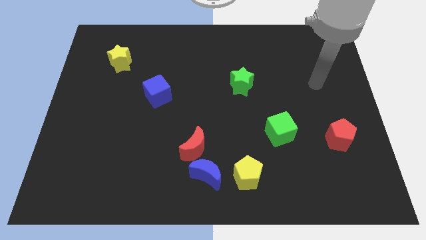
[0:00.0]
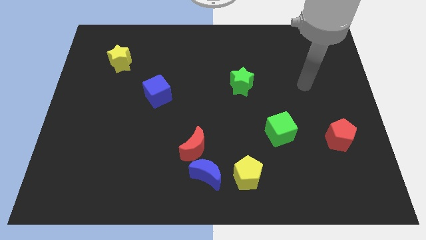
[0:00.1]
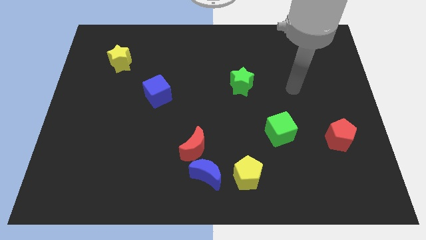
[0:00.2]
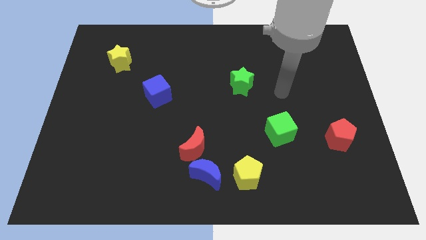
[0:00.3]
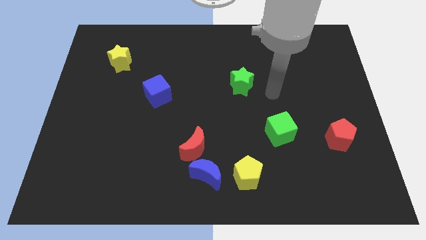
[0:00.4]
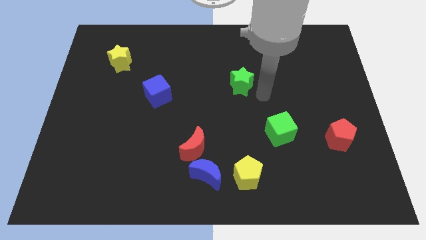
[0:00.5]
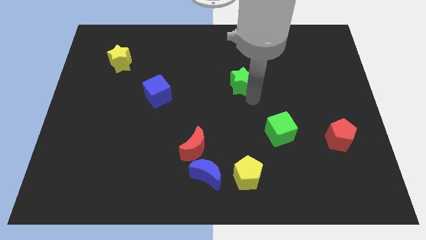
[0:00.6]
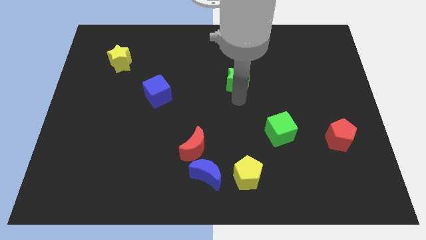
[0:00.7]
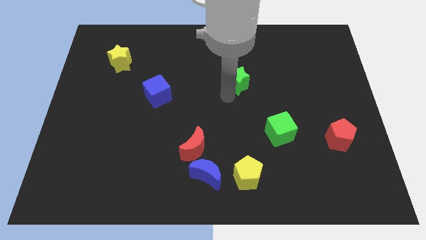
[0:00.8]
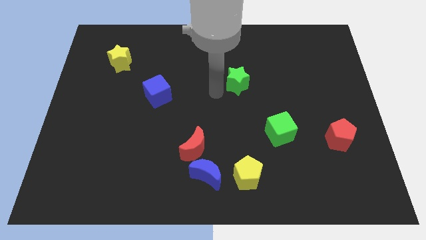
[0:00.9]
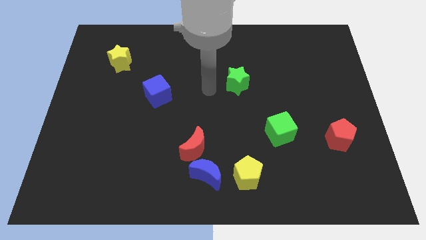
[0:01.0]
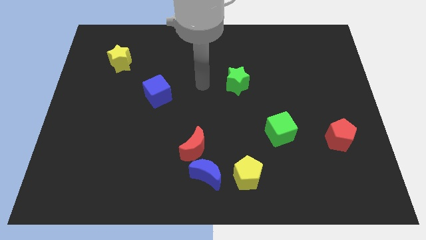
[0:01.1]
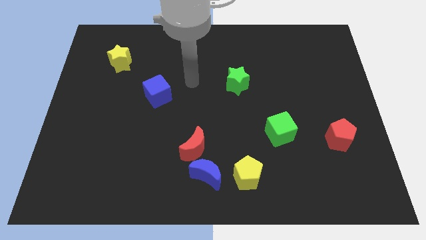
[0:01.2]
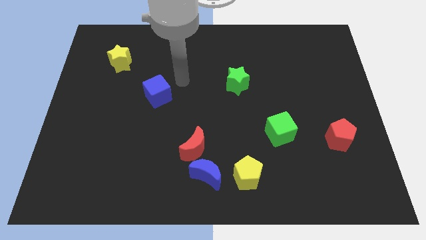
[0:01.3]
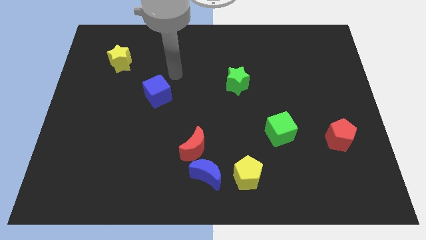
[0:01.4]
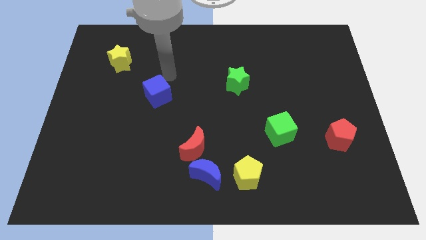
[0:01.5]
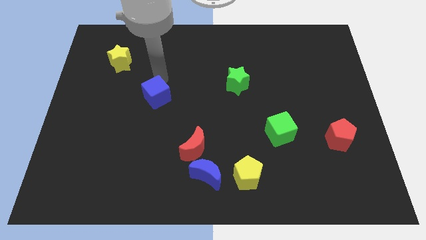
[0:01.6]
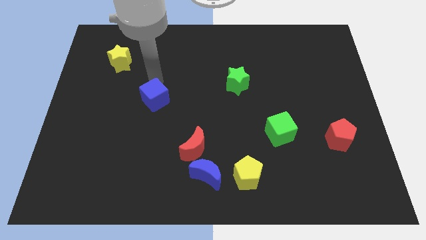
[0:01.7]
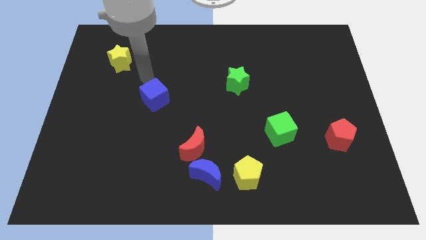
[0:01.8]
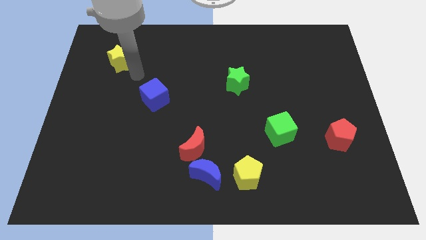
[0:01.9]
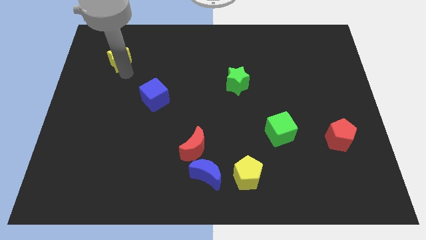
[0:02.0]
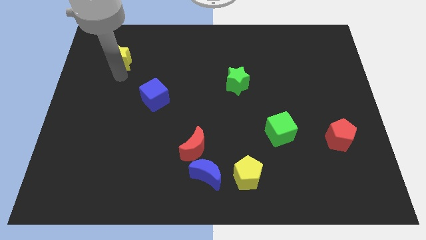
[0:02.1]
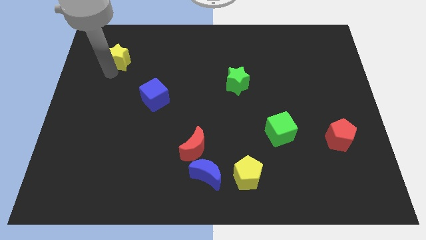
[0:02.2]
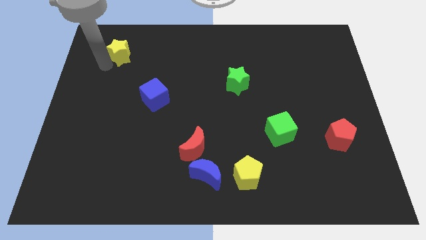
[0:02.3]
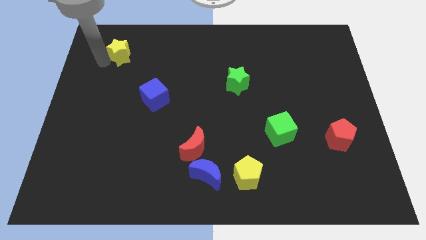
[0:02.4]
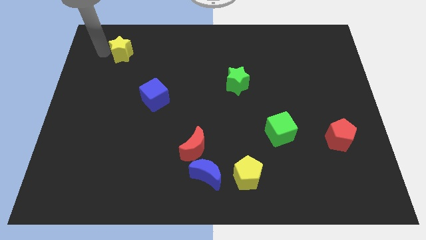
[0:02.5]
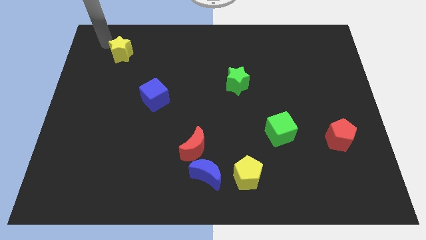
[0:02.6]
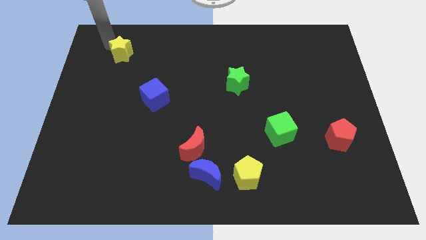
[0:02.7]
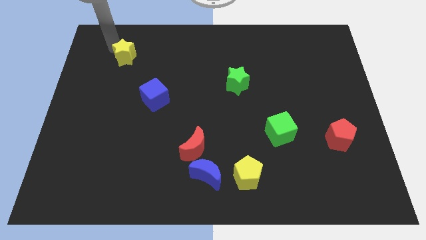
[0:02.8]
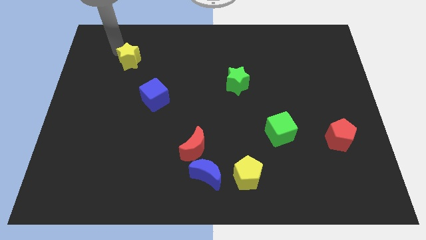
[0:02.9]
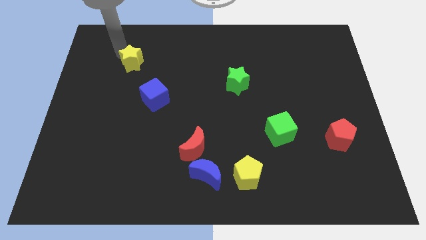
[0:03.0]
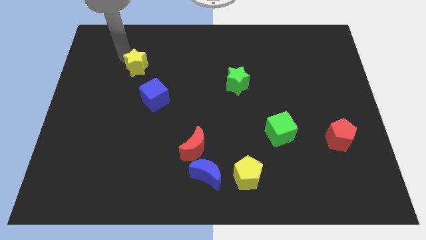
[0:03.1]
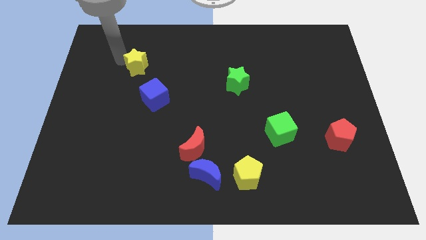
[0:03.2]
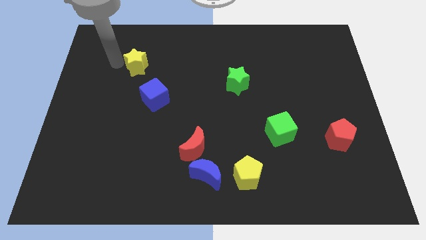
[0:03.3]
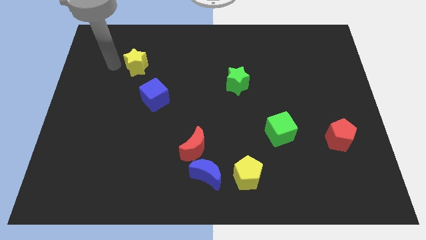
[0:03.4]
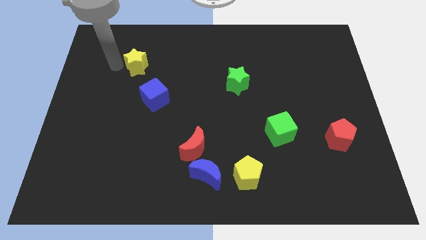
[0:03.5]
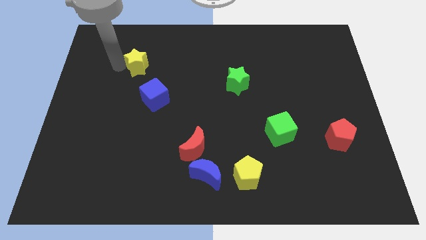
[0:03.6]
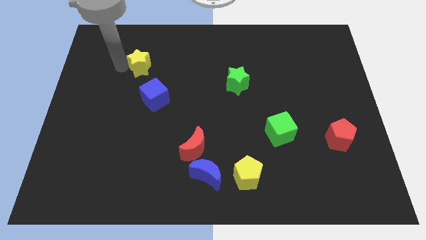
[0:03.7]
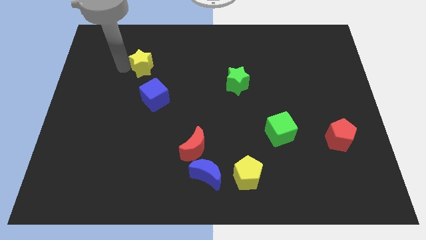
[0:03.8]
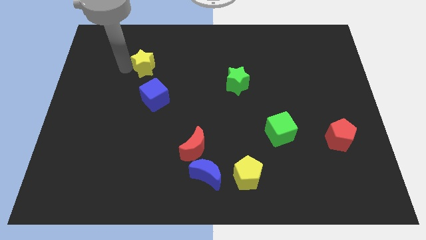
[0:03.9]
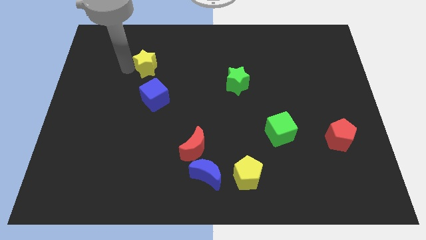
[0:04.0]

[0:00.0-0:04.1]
push the yellow star slightly right

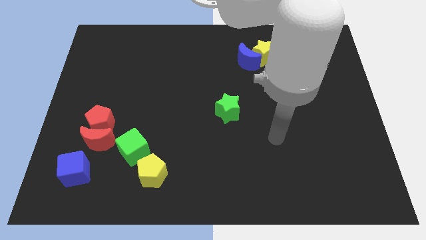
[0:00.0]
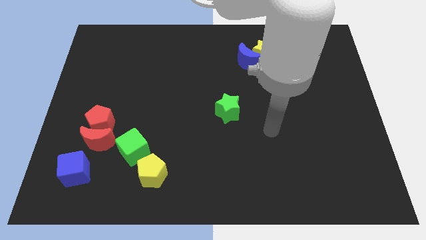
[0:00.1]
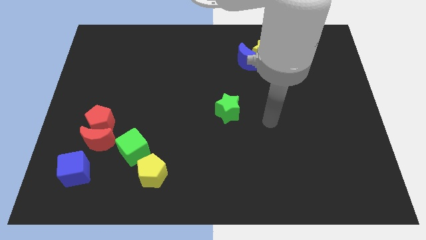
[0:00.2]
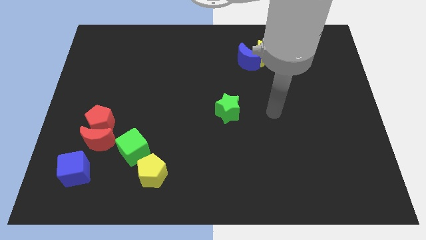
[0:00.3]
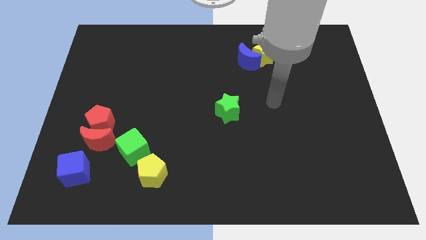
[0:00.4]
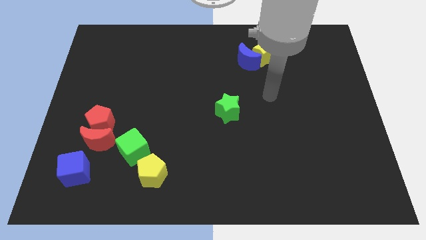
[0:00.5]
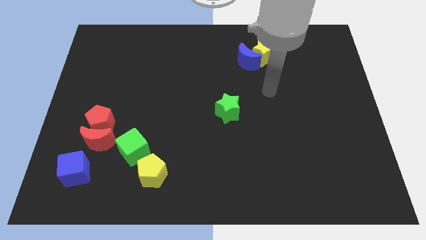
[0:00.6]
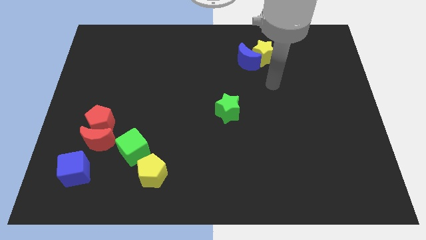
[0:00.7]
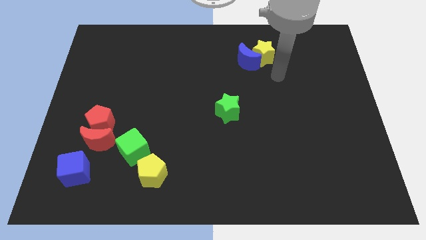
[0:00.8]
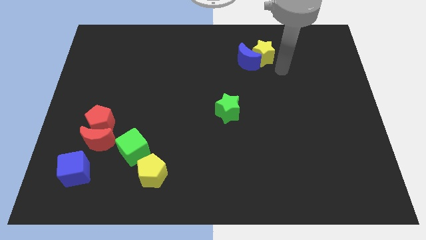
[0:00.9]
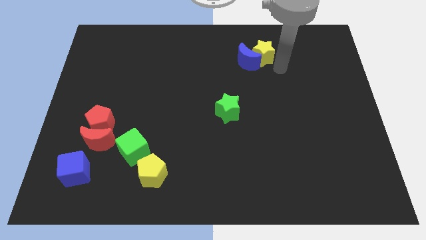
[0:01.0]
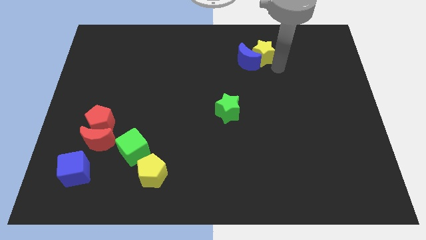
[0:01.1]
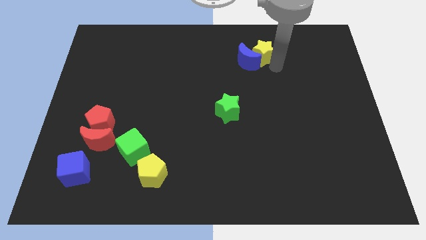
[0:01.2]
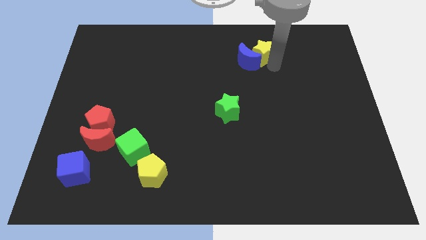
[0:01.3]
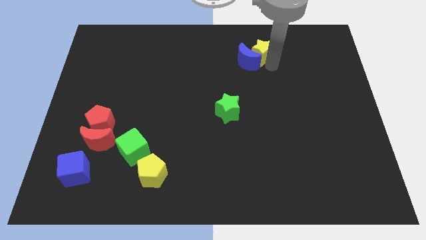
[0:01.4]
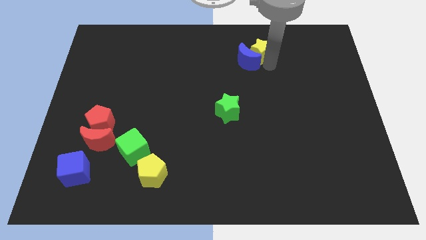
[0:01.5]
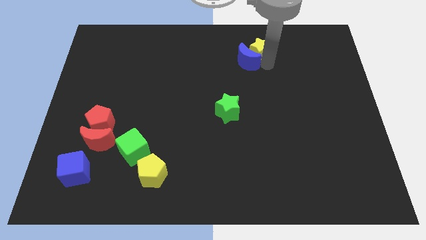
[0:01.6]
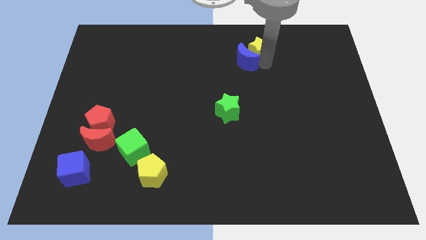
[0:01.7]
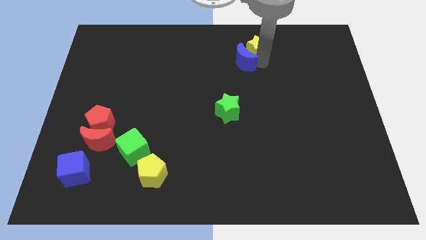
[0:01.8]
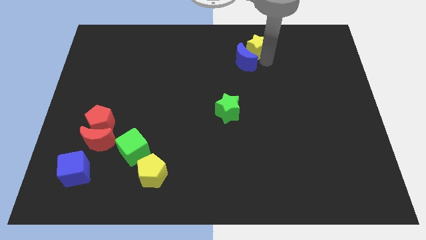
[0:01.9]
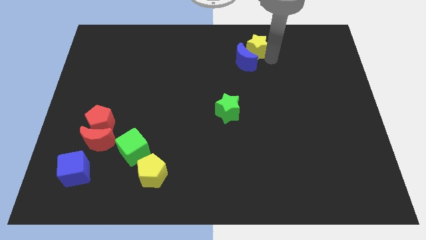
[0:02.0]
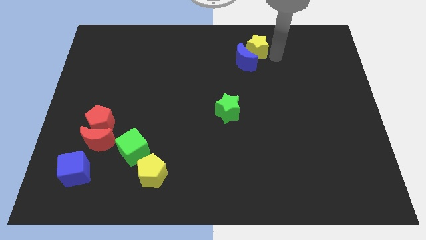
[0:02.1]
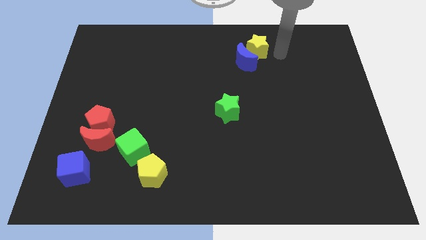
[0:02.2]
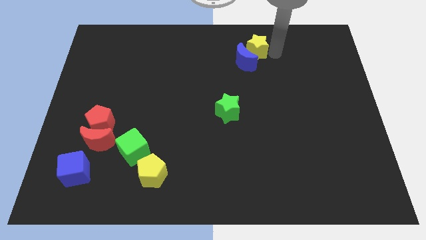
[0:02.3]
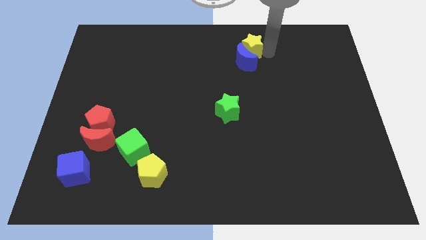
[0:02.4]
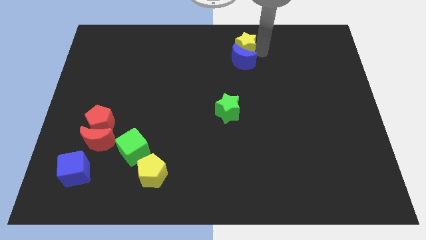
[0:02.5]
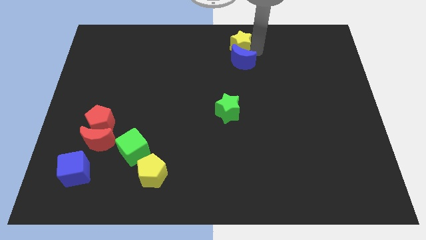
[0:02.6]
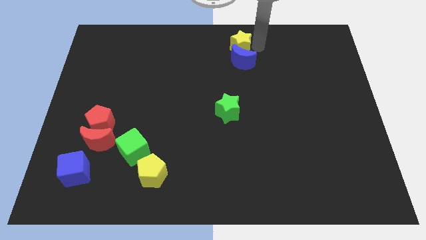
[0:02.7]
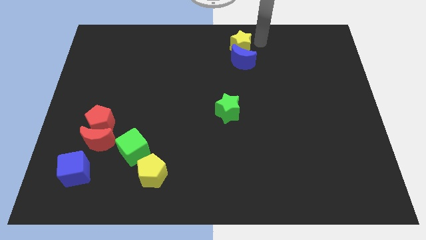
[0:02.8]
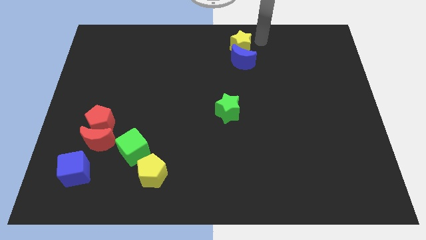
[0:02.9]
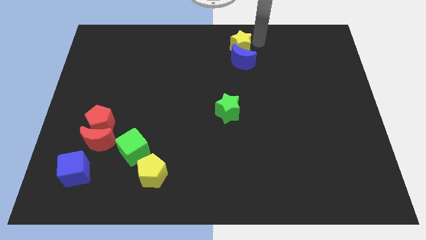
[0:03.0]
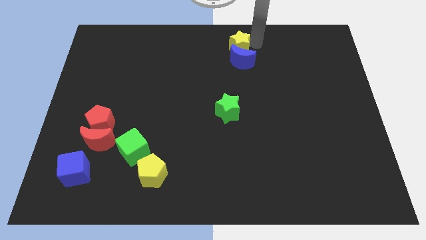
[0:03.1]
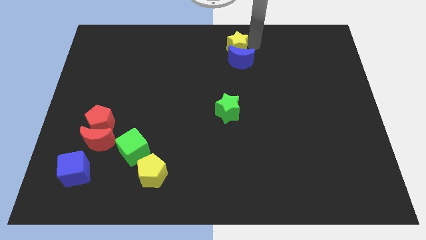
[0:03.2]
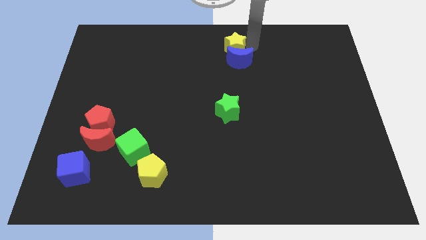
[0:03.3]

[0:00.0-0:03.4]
slide the yellow star a little left

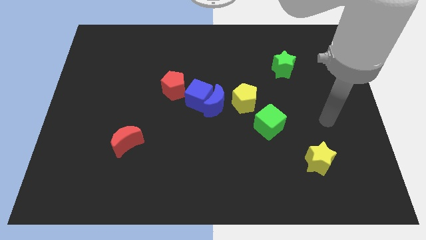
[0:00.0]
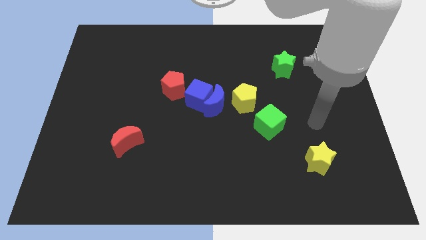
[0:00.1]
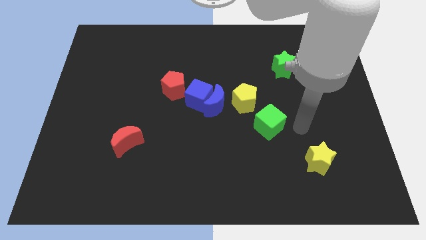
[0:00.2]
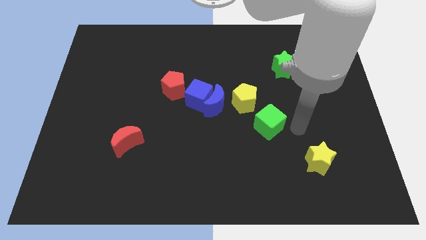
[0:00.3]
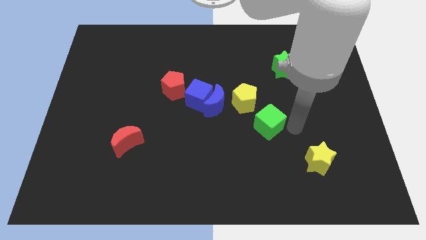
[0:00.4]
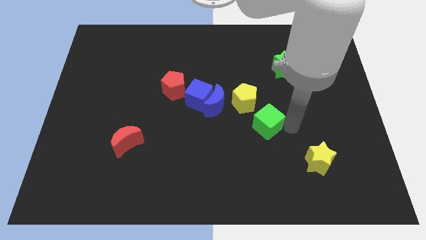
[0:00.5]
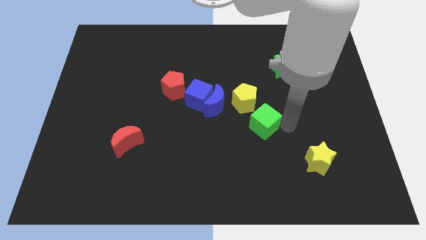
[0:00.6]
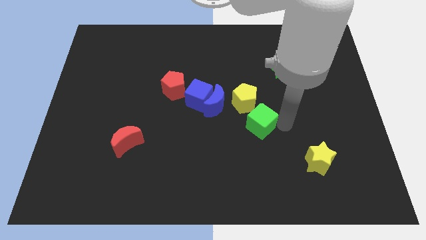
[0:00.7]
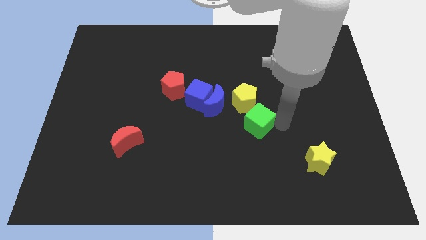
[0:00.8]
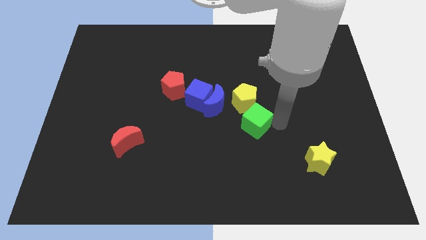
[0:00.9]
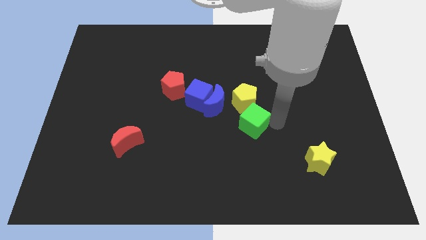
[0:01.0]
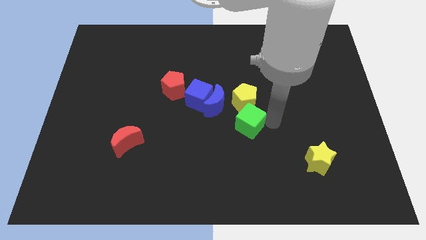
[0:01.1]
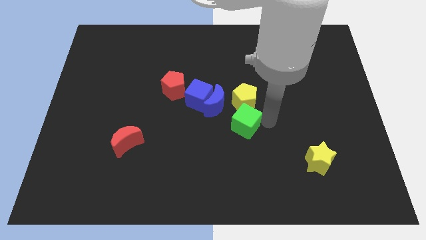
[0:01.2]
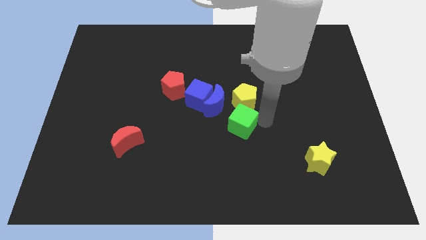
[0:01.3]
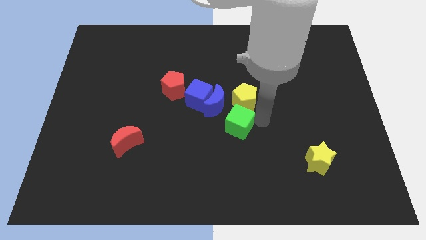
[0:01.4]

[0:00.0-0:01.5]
slide the green cube left somewhat
